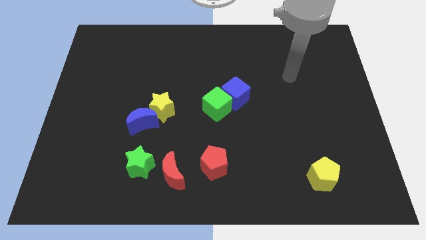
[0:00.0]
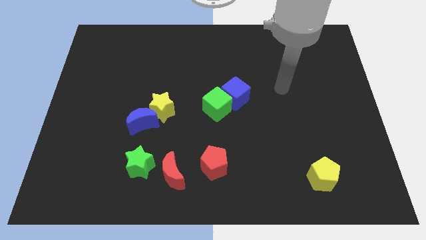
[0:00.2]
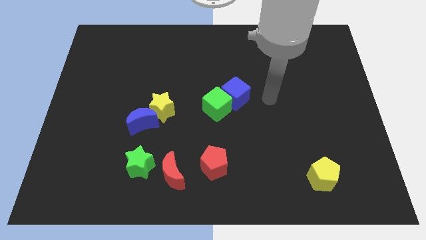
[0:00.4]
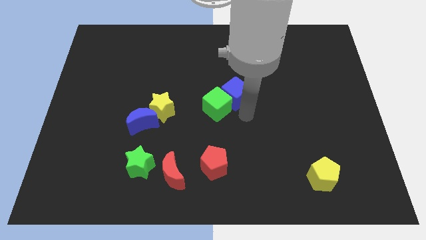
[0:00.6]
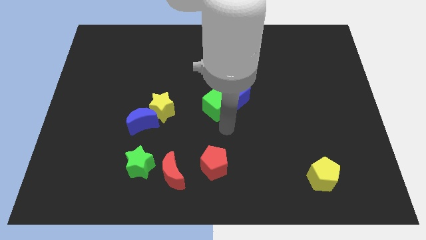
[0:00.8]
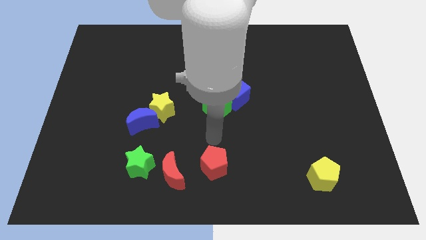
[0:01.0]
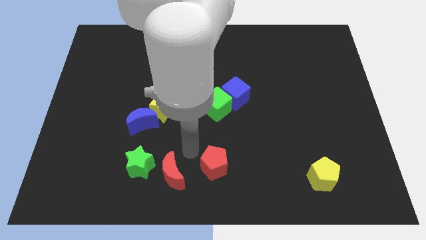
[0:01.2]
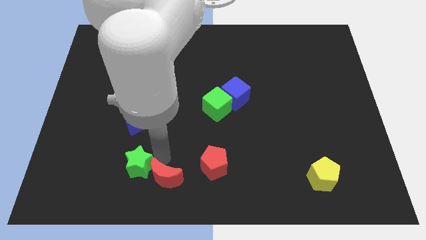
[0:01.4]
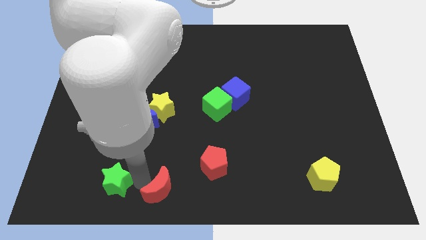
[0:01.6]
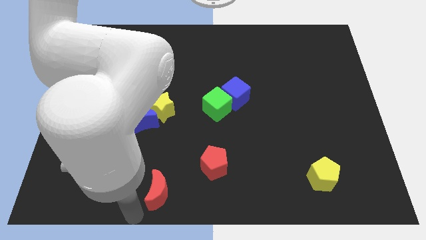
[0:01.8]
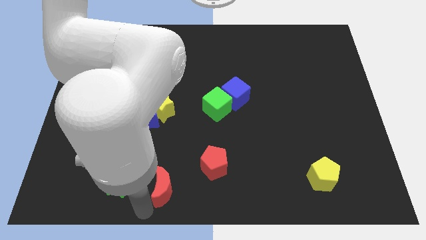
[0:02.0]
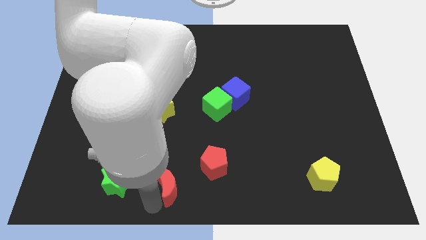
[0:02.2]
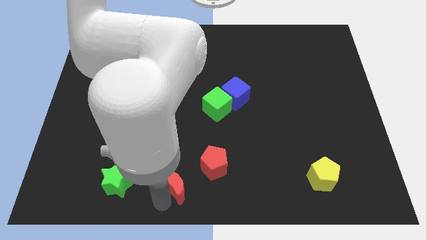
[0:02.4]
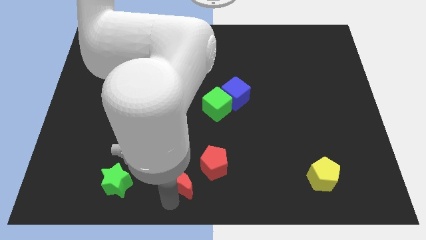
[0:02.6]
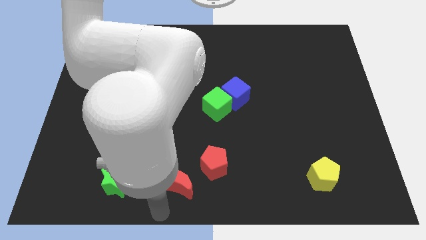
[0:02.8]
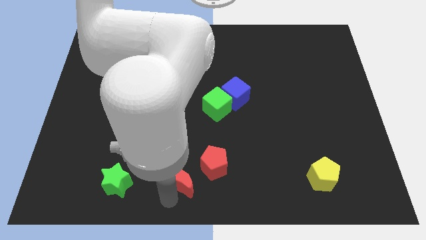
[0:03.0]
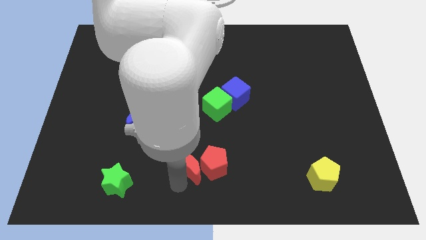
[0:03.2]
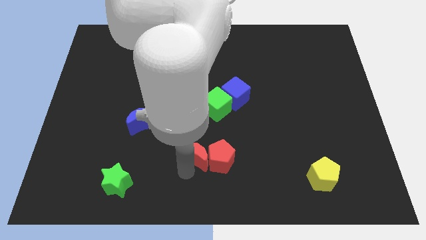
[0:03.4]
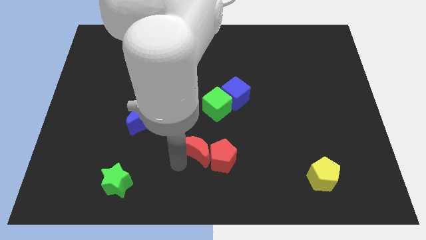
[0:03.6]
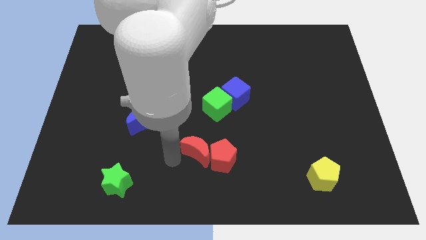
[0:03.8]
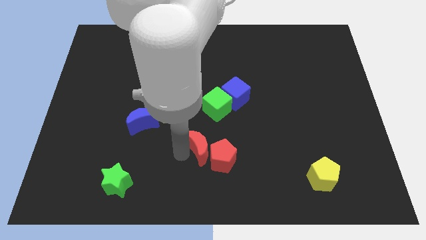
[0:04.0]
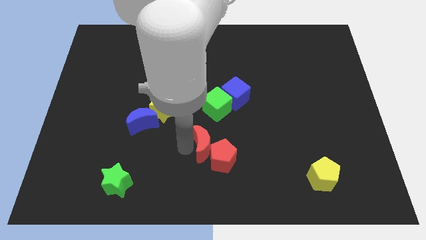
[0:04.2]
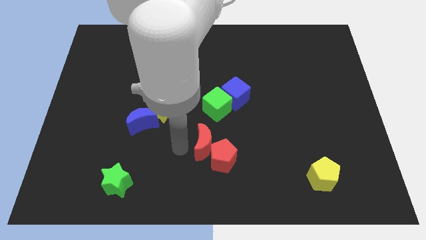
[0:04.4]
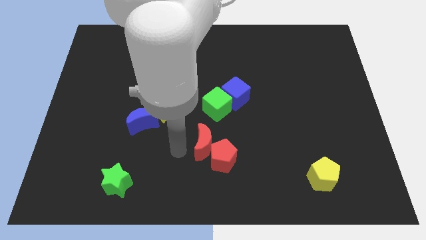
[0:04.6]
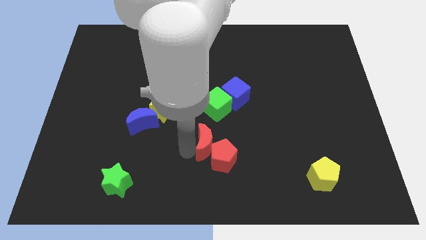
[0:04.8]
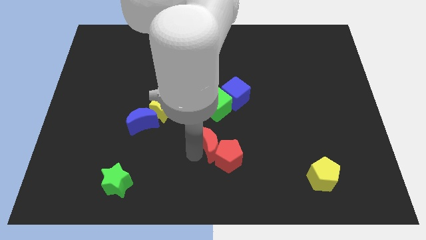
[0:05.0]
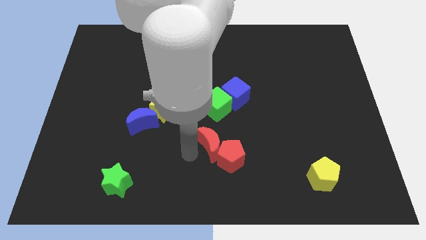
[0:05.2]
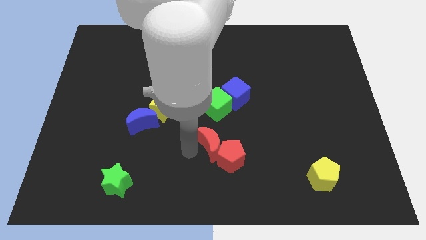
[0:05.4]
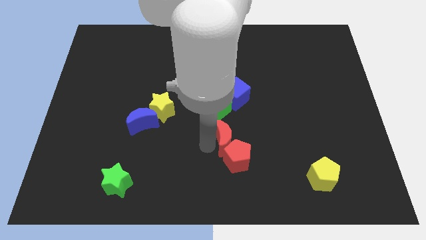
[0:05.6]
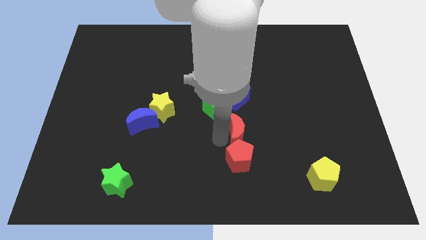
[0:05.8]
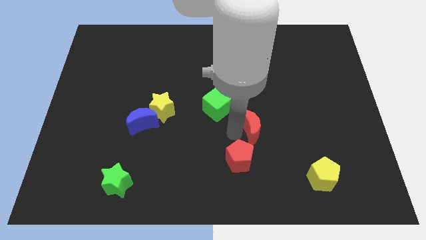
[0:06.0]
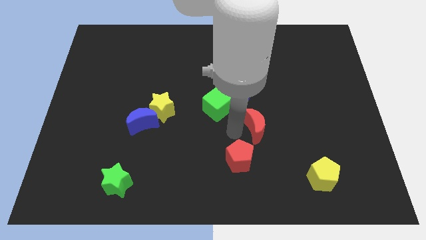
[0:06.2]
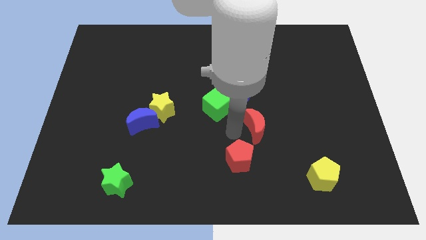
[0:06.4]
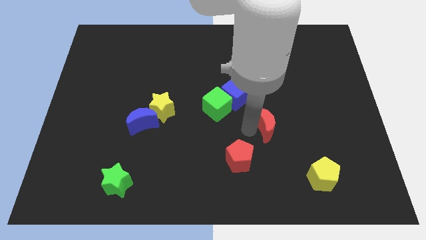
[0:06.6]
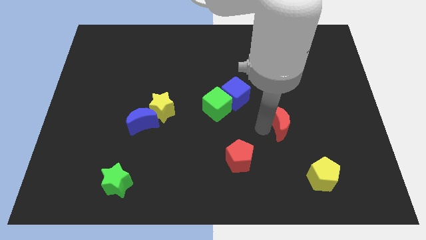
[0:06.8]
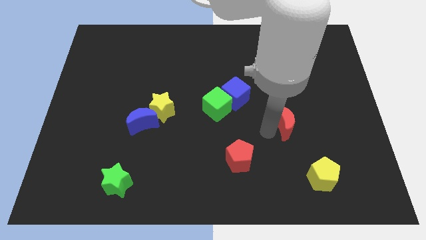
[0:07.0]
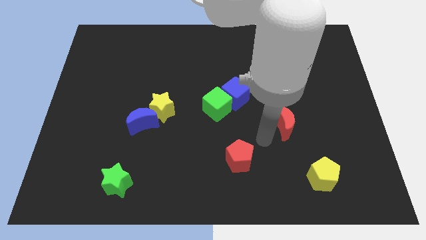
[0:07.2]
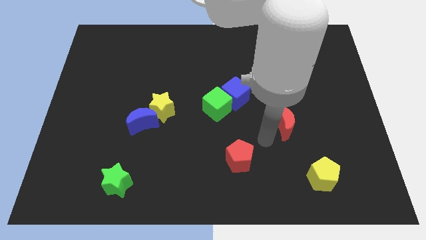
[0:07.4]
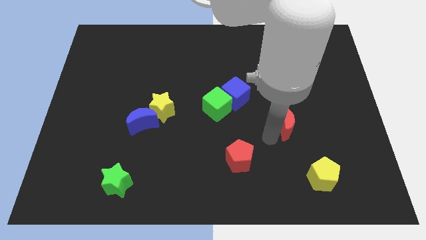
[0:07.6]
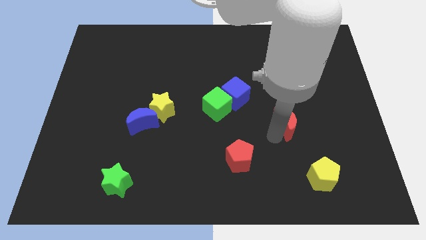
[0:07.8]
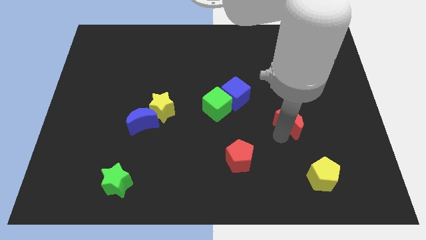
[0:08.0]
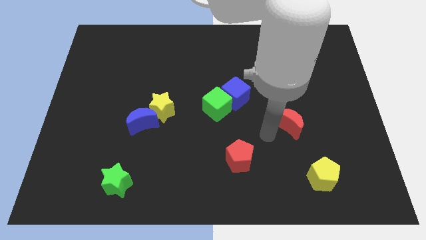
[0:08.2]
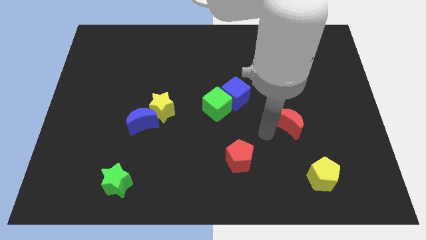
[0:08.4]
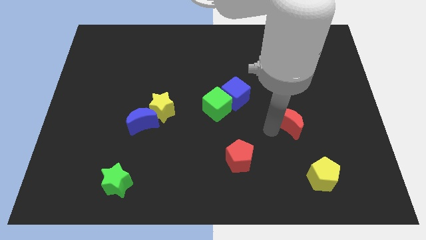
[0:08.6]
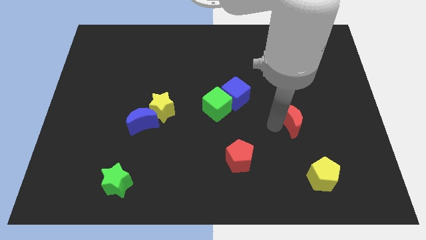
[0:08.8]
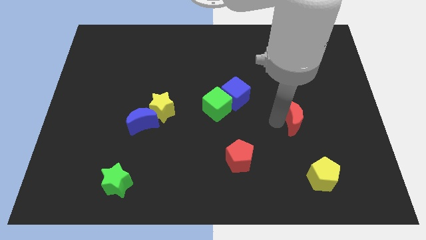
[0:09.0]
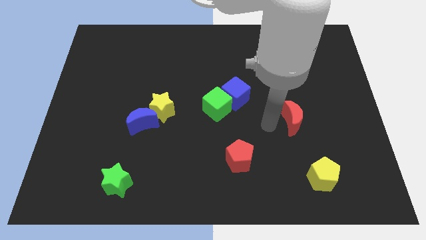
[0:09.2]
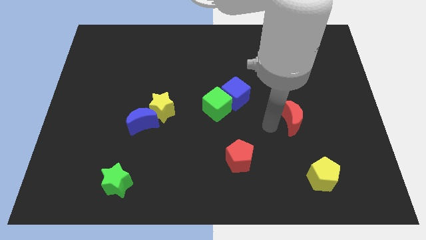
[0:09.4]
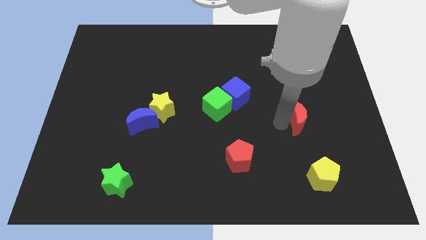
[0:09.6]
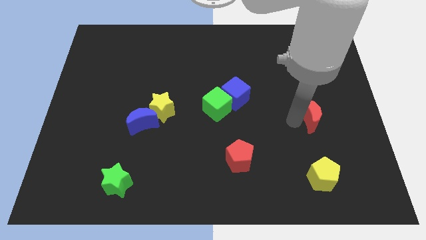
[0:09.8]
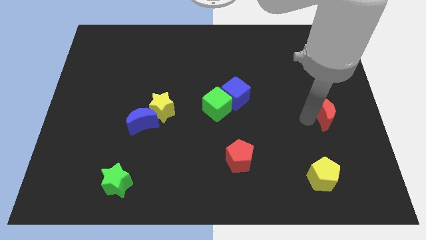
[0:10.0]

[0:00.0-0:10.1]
put the red moon to the center right

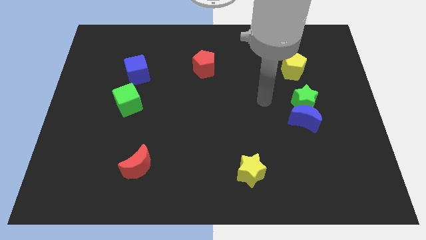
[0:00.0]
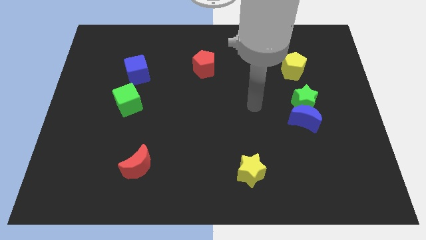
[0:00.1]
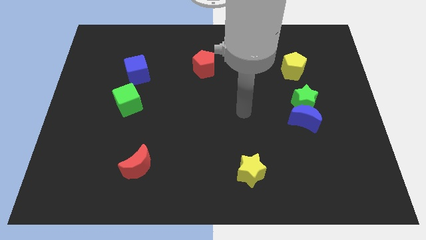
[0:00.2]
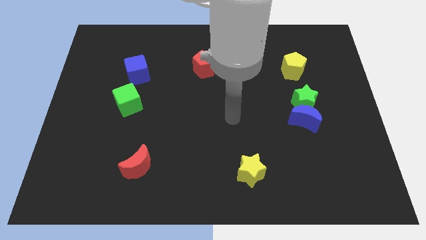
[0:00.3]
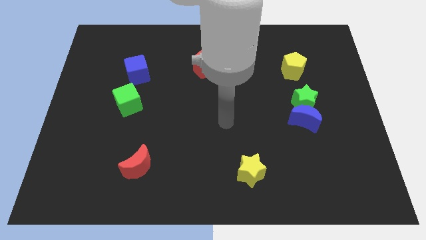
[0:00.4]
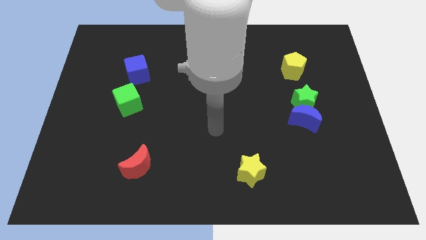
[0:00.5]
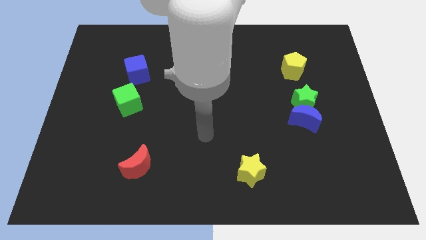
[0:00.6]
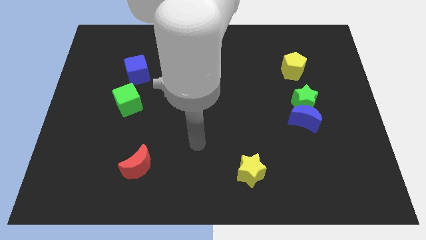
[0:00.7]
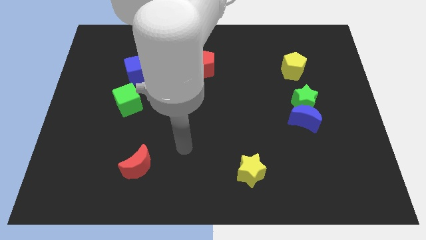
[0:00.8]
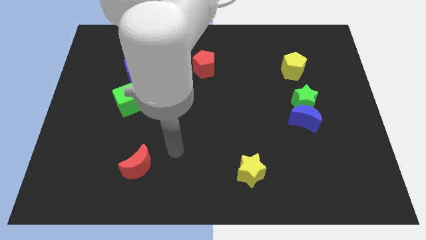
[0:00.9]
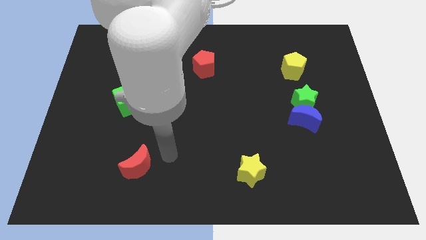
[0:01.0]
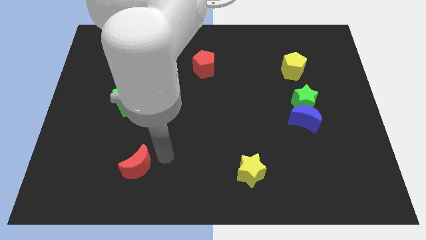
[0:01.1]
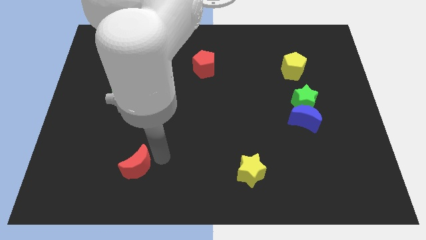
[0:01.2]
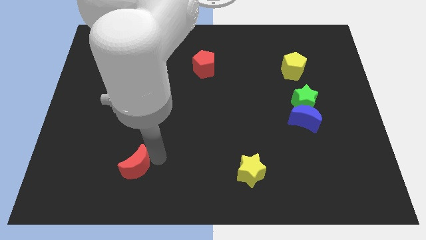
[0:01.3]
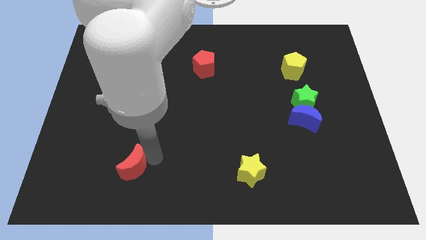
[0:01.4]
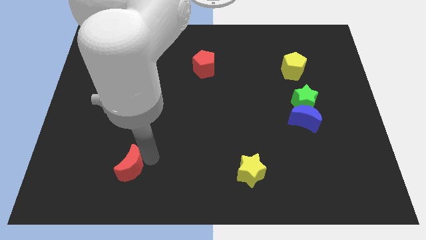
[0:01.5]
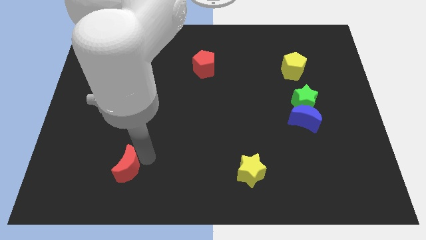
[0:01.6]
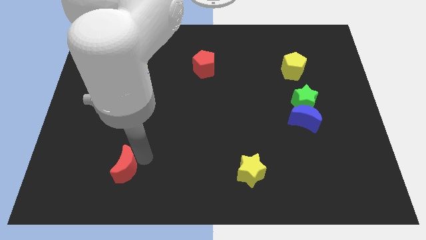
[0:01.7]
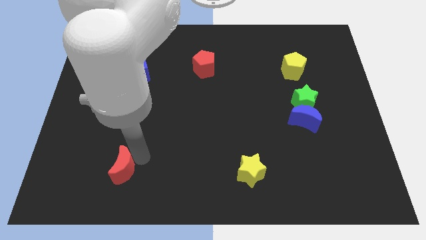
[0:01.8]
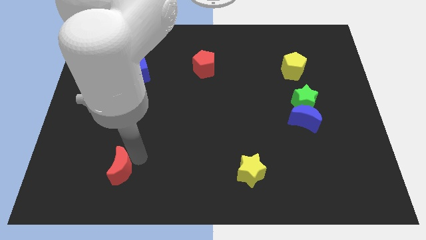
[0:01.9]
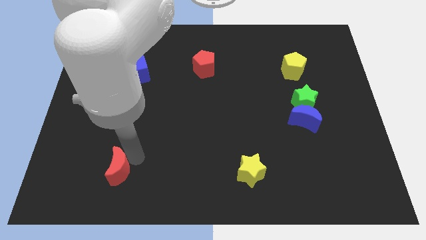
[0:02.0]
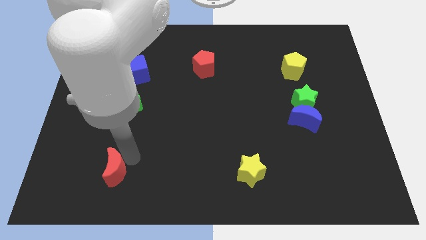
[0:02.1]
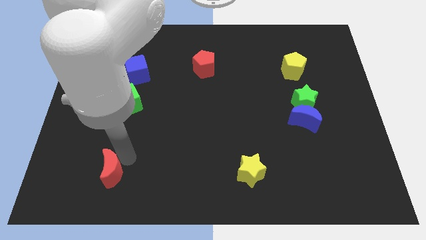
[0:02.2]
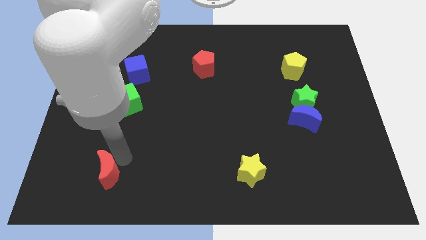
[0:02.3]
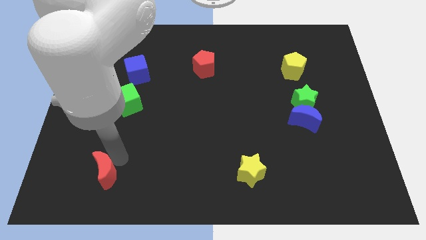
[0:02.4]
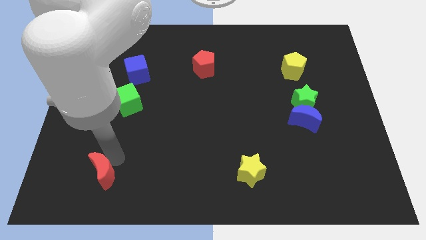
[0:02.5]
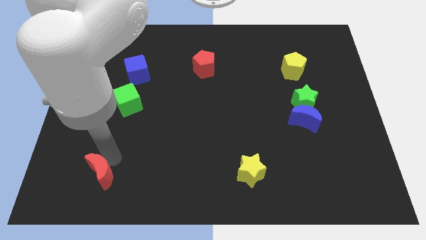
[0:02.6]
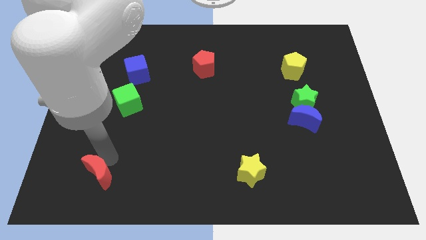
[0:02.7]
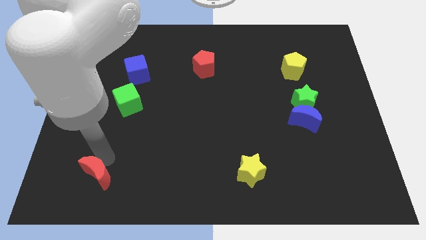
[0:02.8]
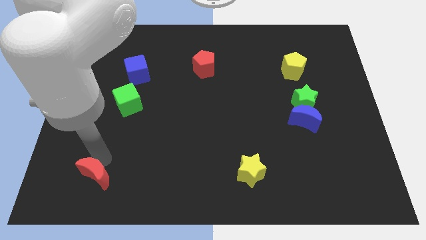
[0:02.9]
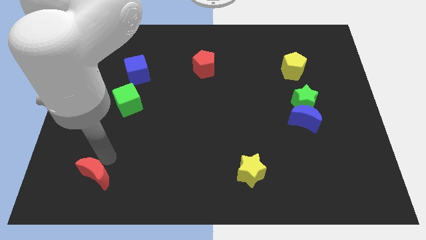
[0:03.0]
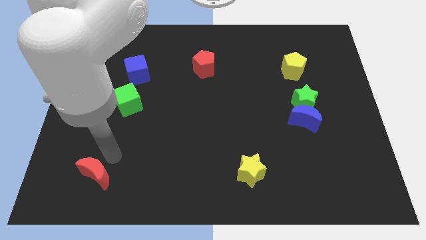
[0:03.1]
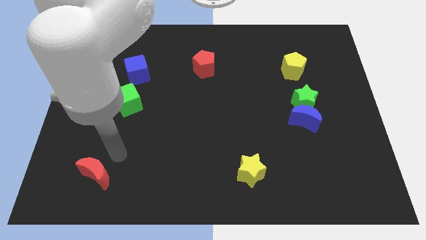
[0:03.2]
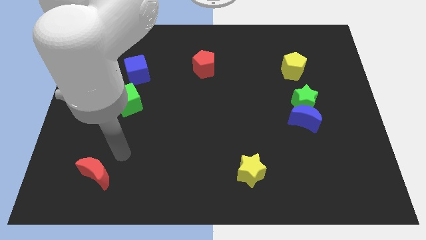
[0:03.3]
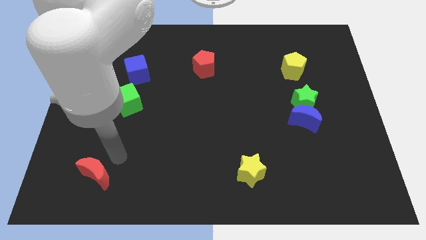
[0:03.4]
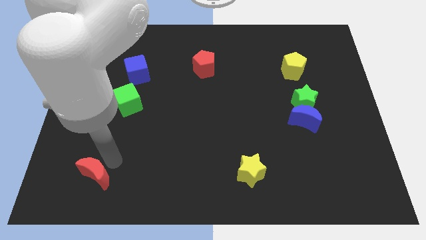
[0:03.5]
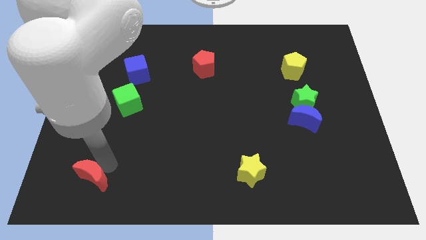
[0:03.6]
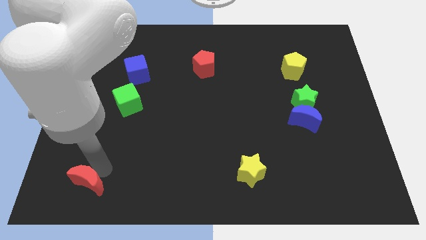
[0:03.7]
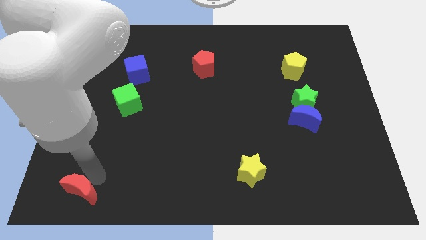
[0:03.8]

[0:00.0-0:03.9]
push the red moon to the bottom left of the board
